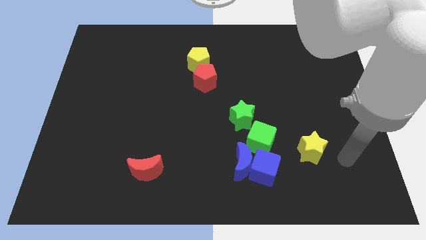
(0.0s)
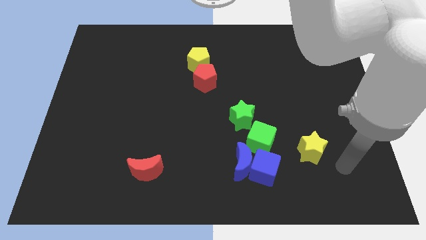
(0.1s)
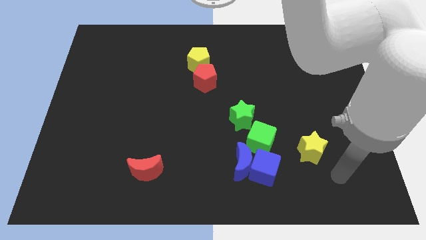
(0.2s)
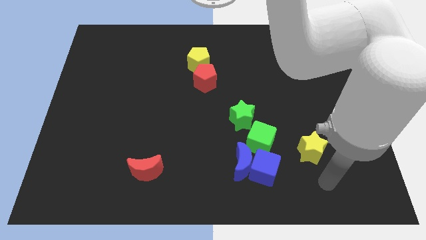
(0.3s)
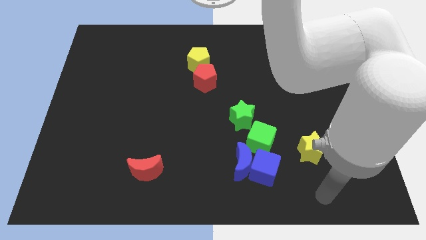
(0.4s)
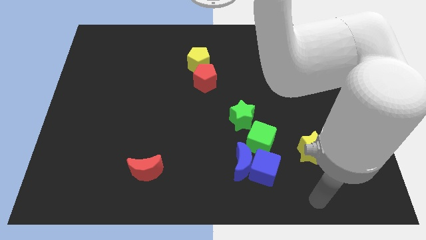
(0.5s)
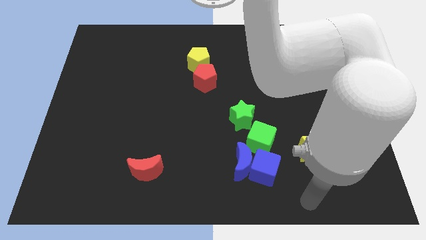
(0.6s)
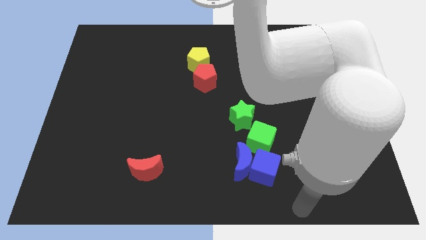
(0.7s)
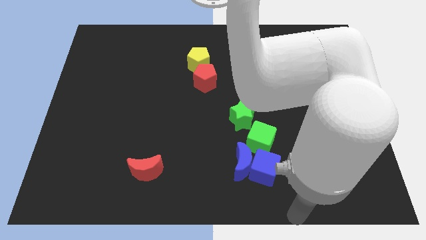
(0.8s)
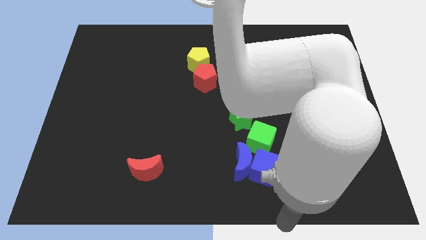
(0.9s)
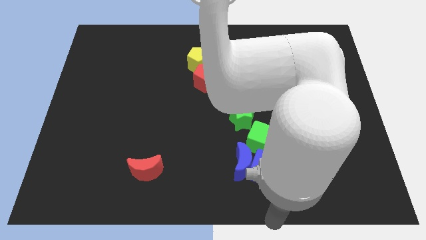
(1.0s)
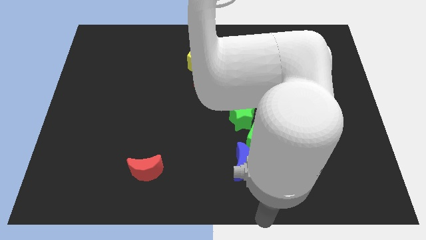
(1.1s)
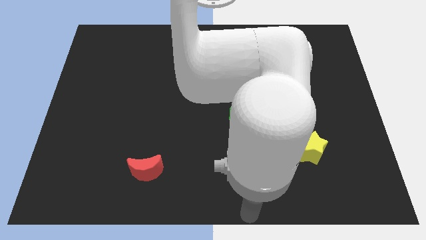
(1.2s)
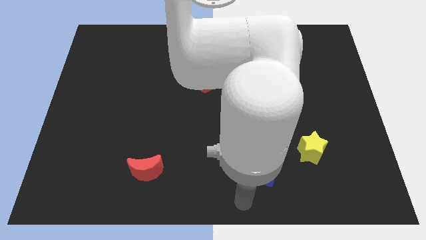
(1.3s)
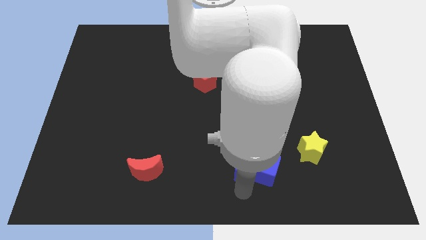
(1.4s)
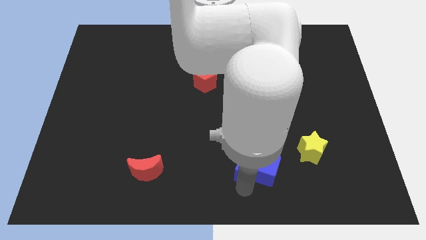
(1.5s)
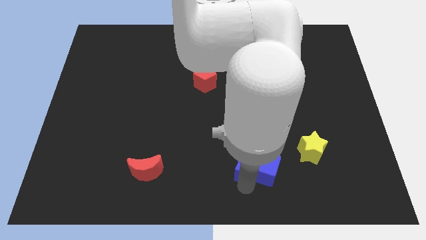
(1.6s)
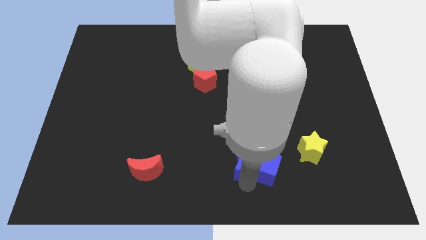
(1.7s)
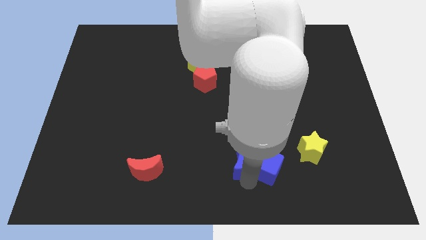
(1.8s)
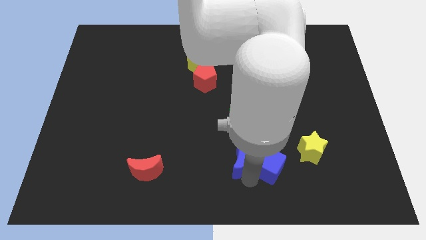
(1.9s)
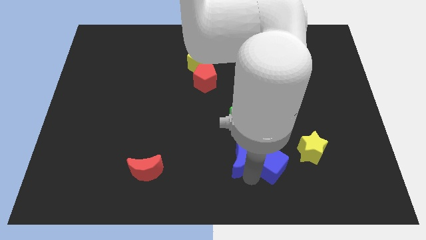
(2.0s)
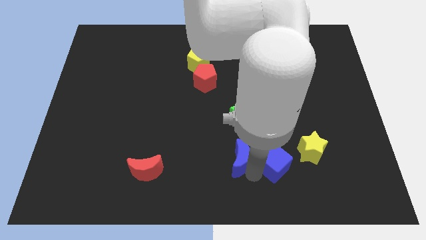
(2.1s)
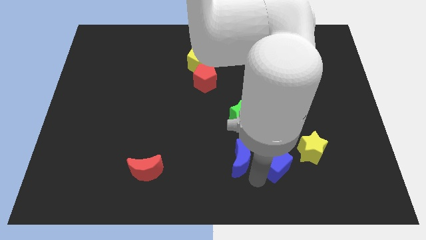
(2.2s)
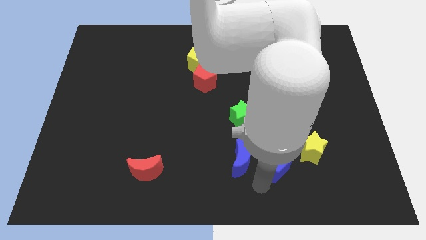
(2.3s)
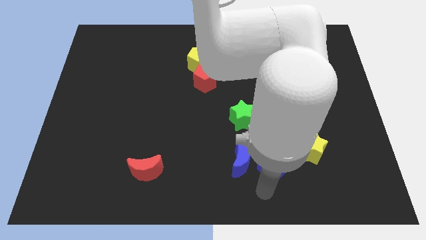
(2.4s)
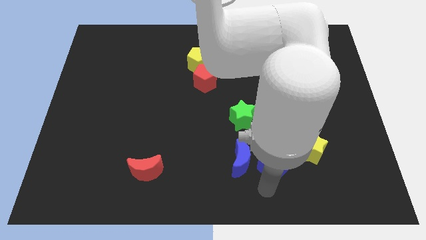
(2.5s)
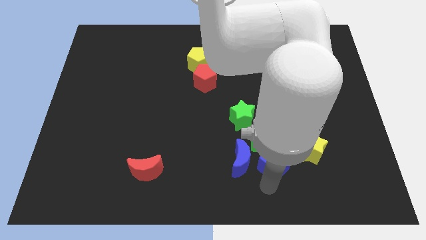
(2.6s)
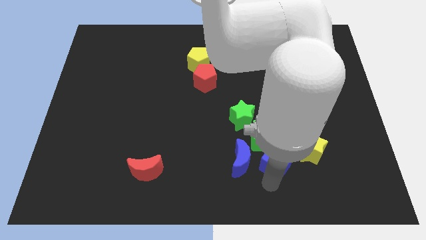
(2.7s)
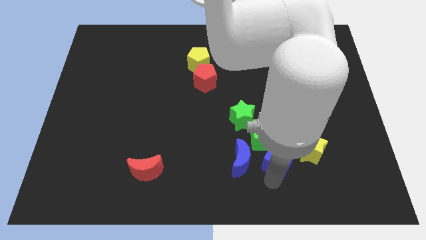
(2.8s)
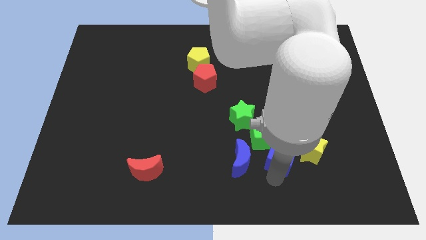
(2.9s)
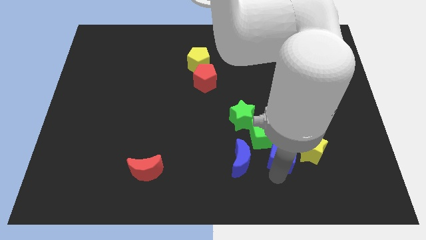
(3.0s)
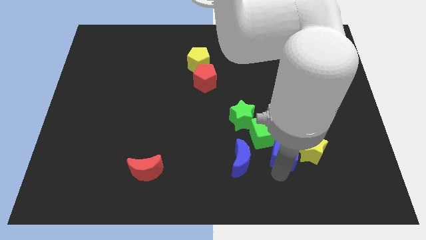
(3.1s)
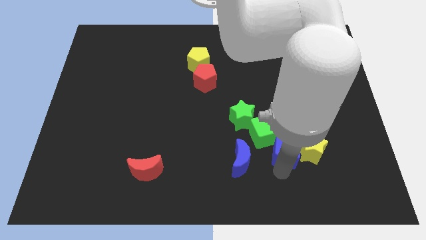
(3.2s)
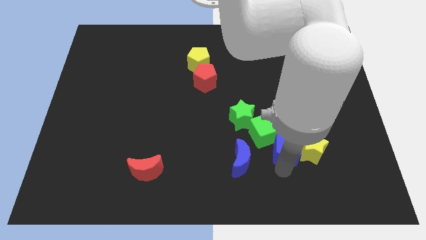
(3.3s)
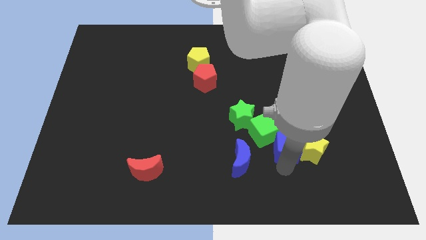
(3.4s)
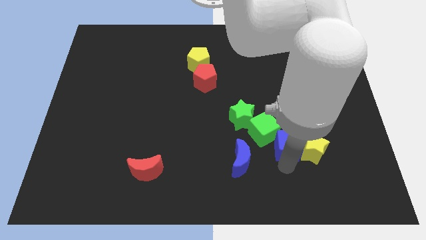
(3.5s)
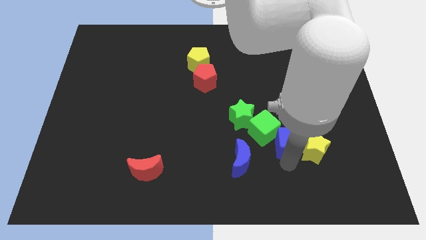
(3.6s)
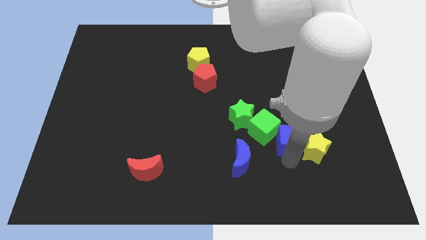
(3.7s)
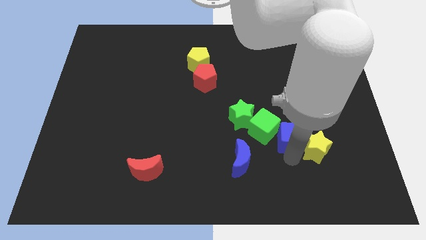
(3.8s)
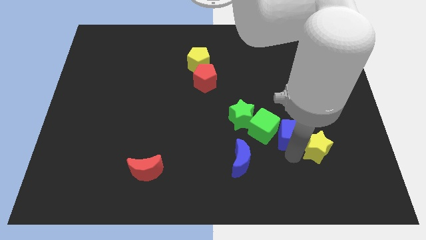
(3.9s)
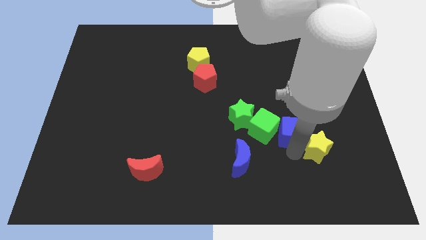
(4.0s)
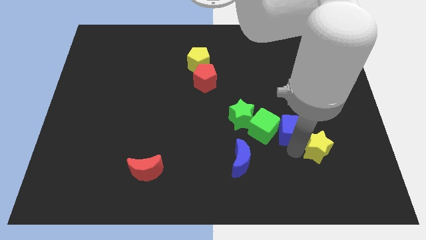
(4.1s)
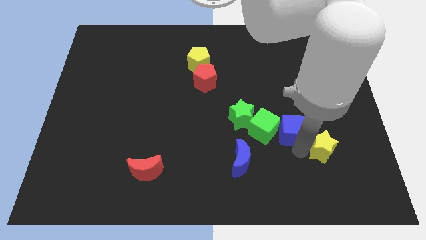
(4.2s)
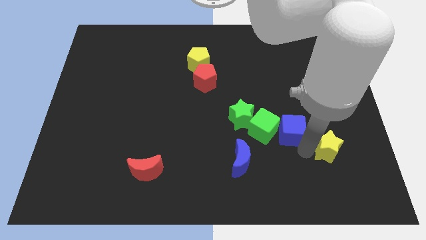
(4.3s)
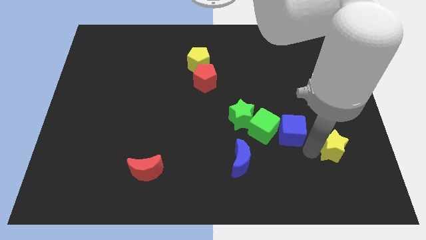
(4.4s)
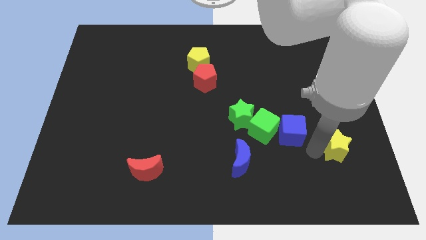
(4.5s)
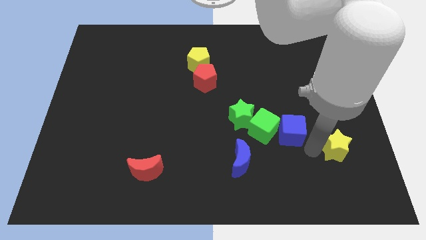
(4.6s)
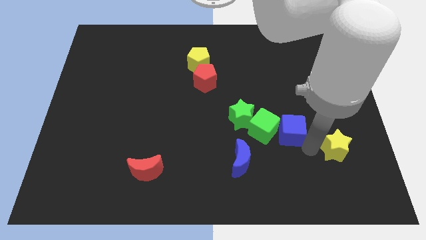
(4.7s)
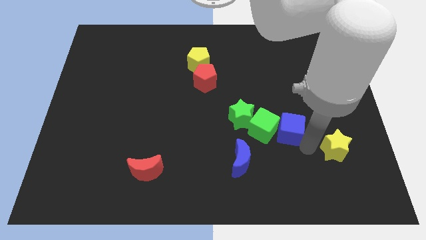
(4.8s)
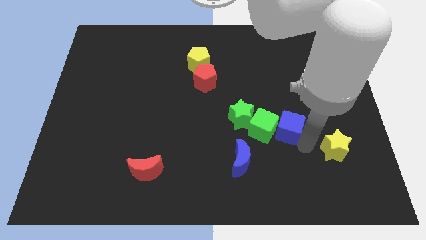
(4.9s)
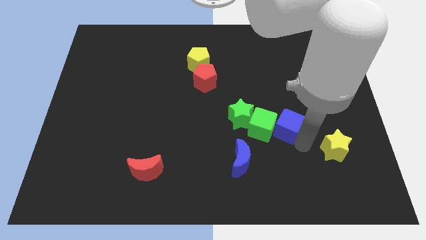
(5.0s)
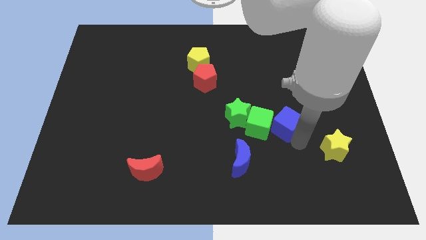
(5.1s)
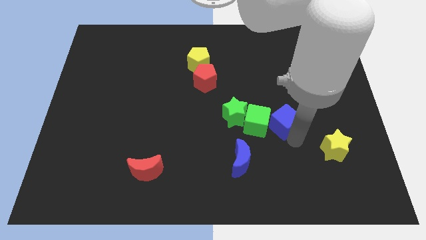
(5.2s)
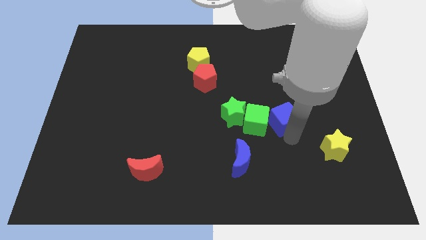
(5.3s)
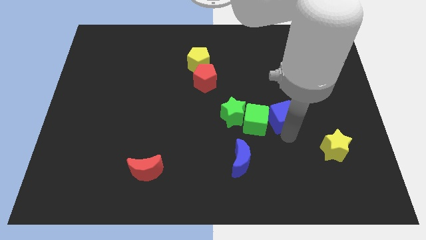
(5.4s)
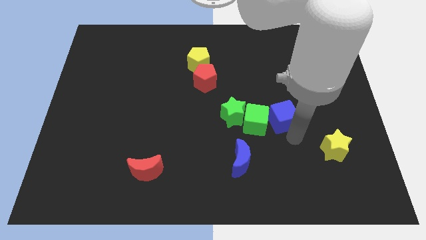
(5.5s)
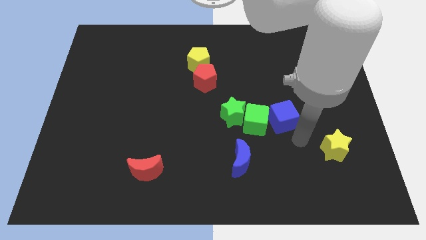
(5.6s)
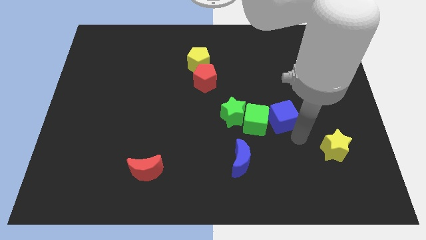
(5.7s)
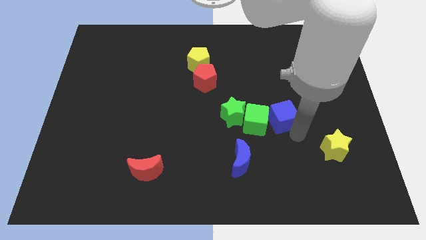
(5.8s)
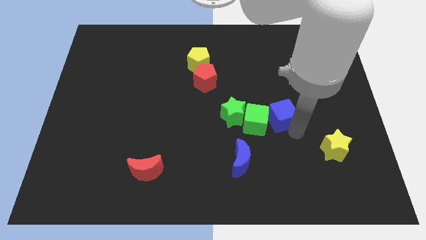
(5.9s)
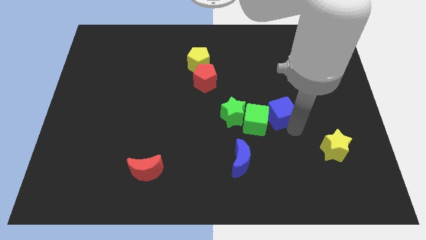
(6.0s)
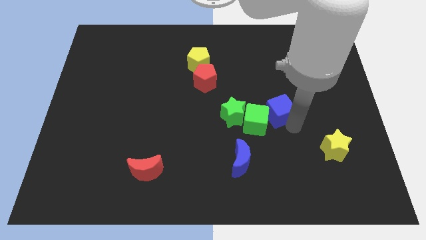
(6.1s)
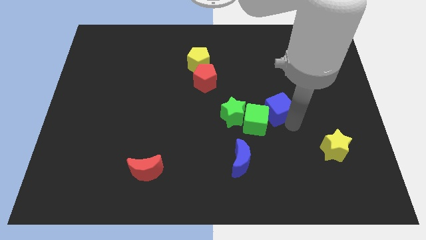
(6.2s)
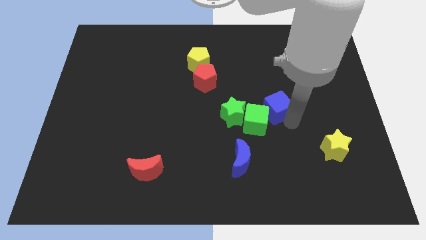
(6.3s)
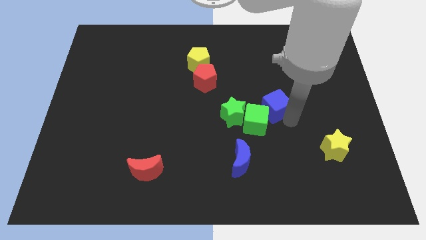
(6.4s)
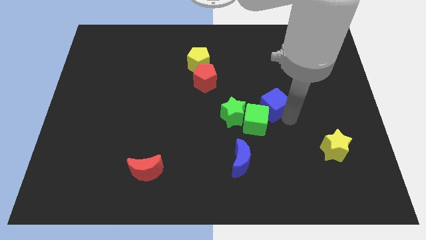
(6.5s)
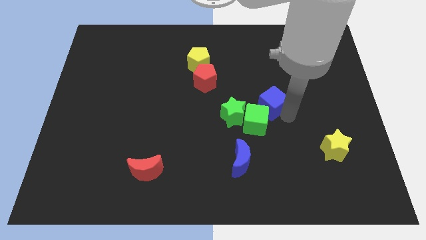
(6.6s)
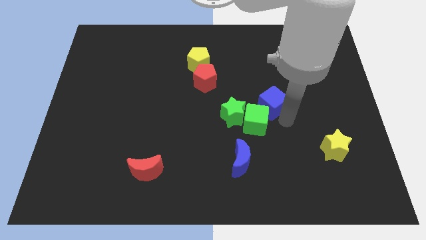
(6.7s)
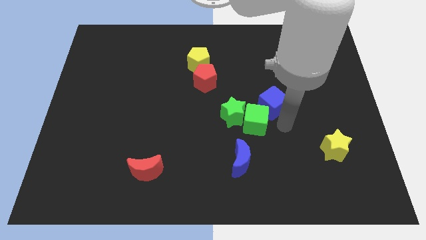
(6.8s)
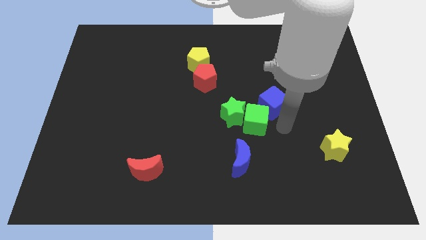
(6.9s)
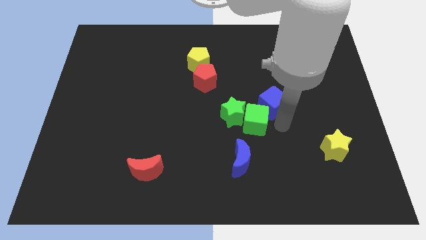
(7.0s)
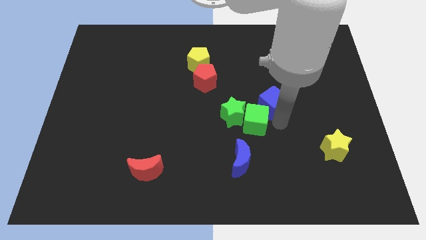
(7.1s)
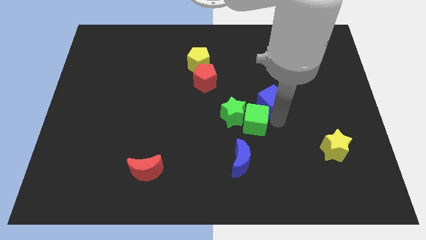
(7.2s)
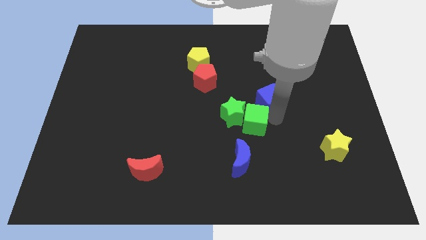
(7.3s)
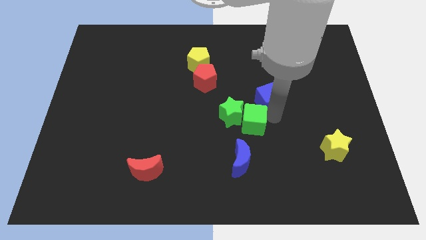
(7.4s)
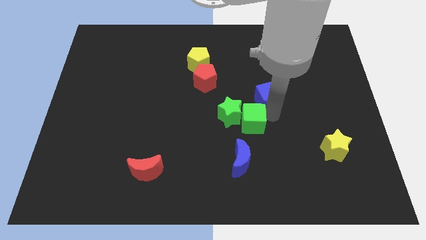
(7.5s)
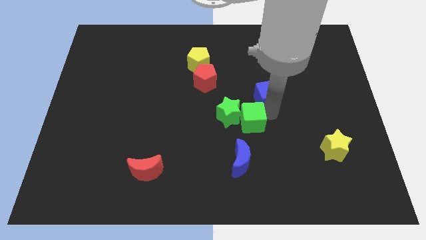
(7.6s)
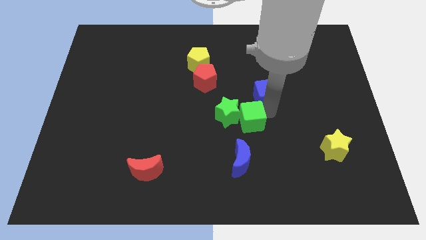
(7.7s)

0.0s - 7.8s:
slide the blue cube upwards
